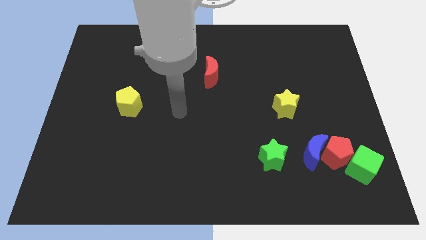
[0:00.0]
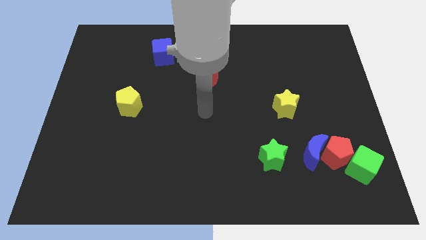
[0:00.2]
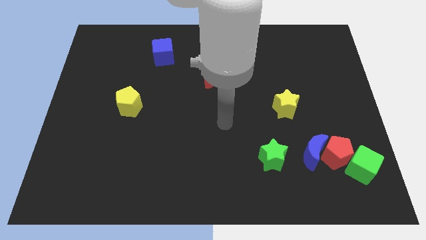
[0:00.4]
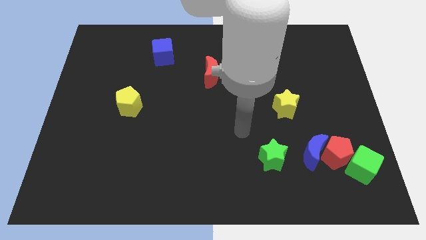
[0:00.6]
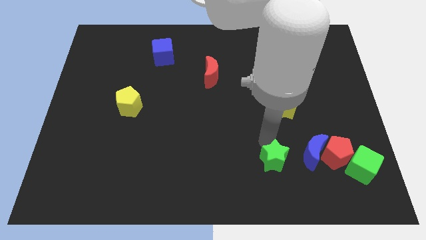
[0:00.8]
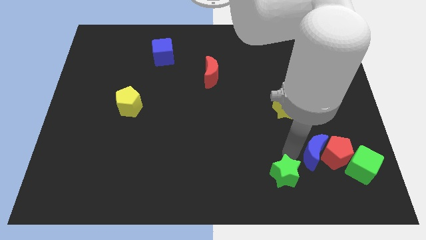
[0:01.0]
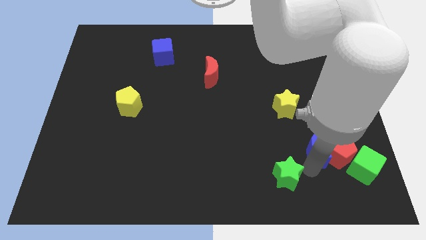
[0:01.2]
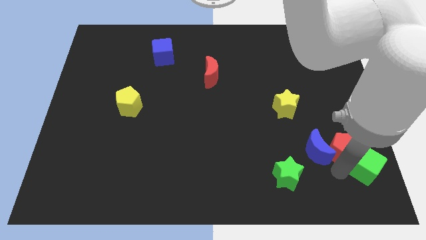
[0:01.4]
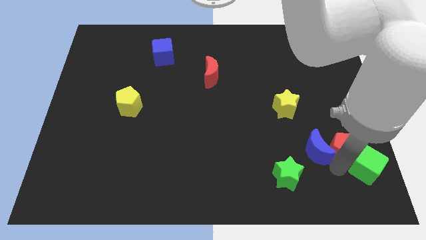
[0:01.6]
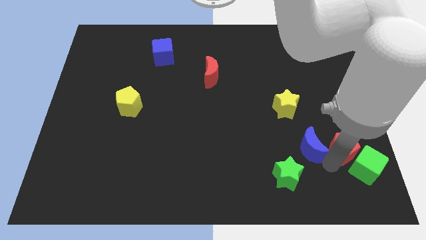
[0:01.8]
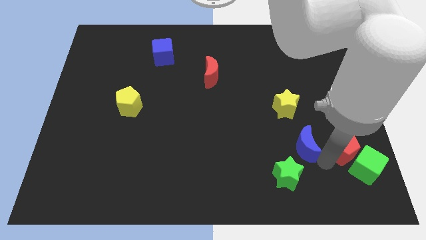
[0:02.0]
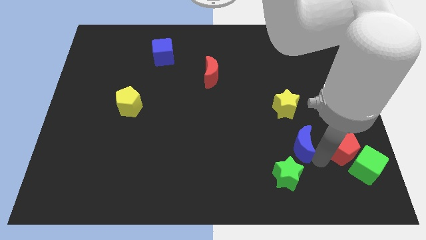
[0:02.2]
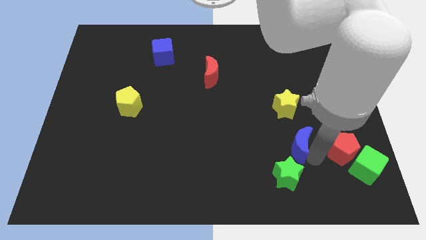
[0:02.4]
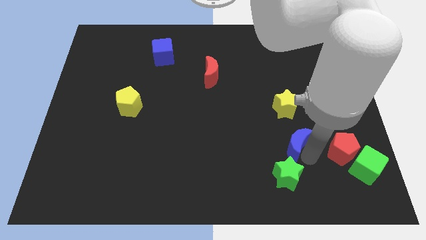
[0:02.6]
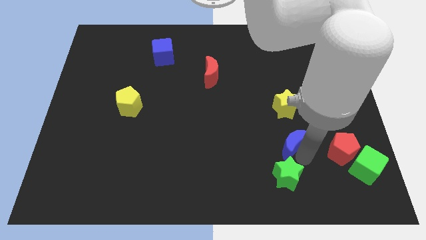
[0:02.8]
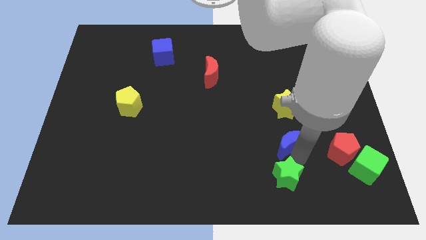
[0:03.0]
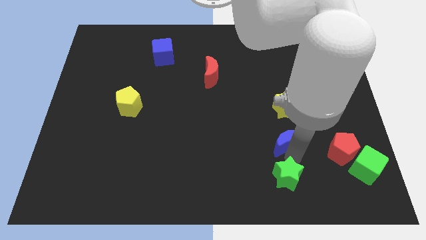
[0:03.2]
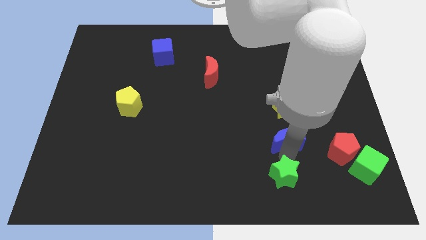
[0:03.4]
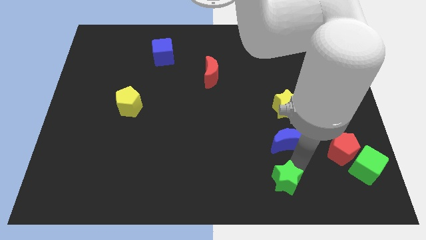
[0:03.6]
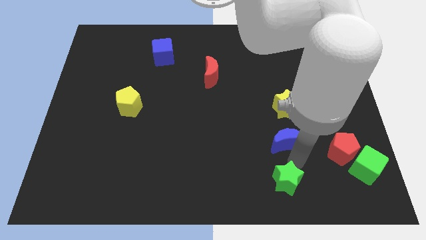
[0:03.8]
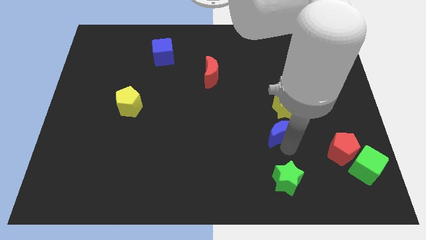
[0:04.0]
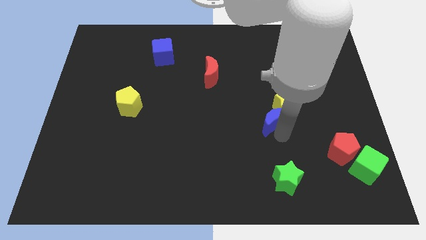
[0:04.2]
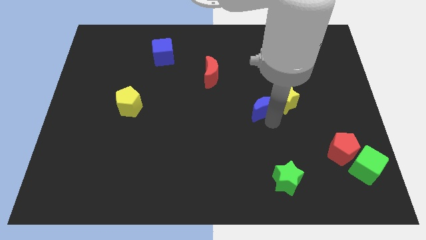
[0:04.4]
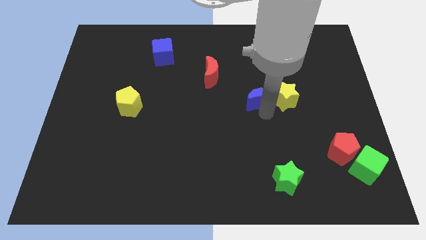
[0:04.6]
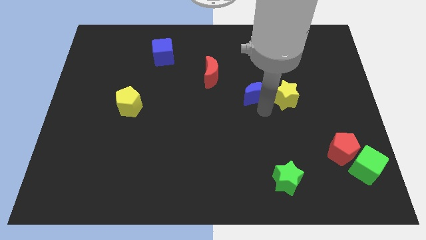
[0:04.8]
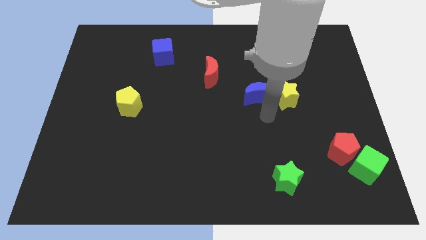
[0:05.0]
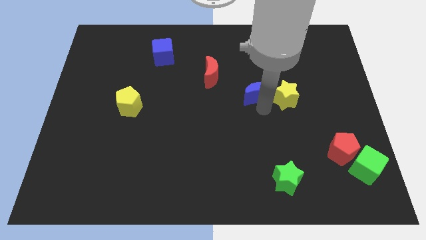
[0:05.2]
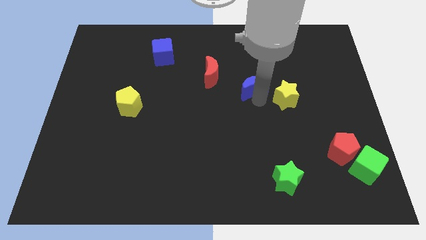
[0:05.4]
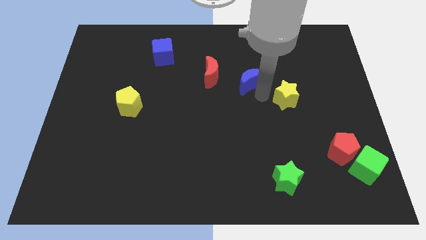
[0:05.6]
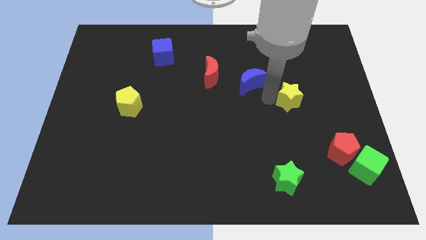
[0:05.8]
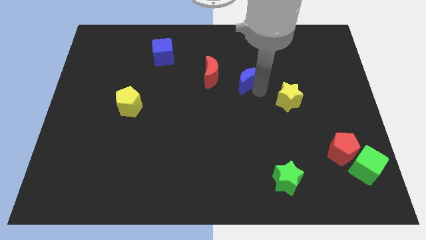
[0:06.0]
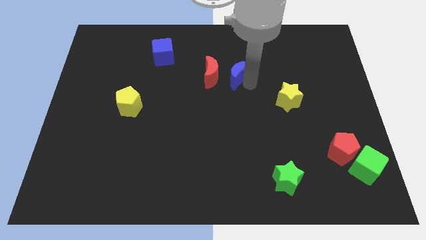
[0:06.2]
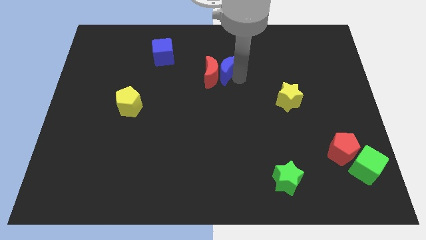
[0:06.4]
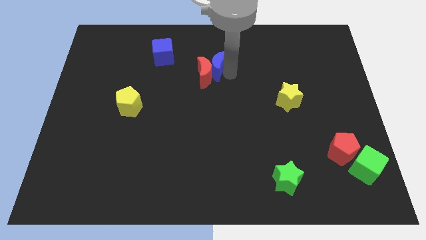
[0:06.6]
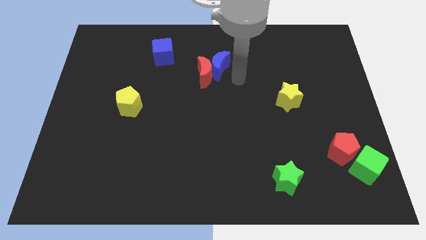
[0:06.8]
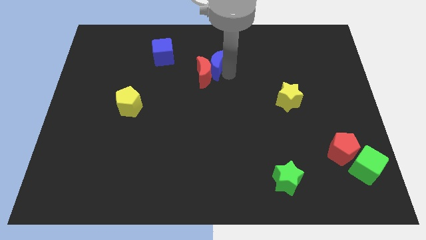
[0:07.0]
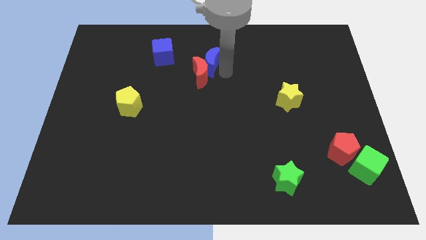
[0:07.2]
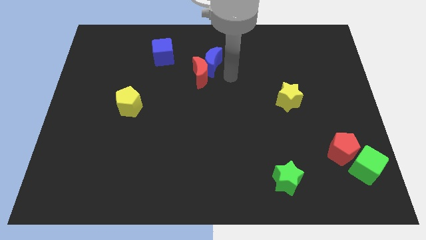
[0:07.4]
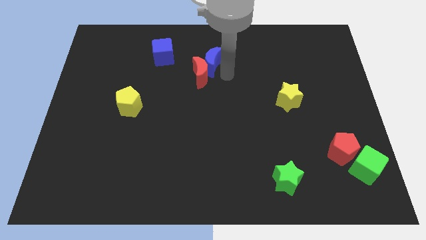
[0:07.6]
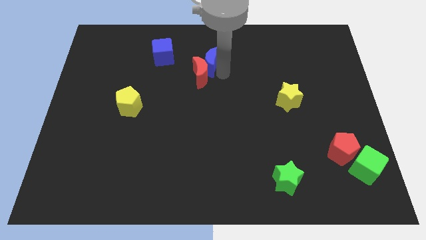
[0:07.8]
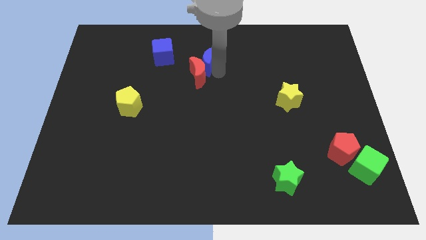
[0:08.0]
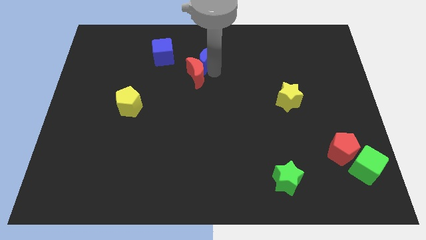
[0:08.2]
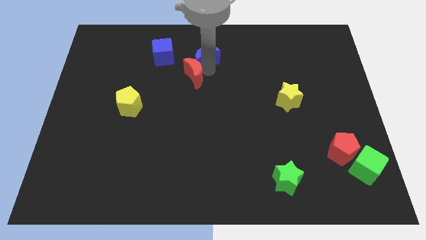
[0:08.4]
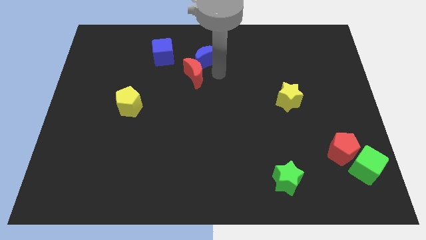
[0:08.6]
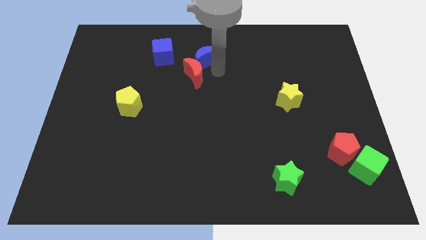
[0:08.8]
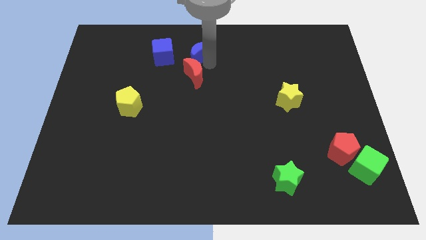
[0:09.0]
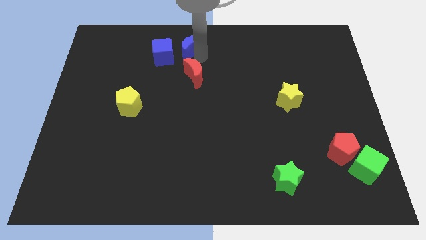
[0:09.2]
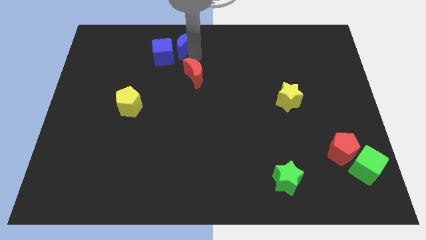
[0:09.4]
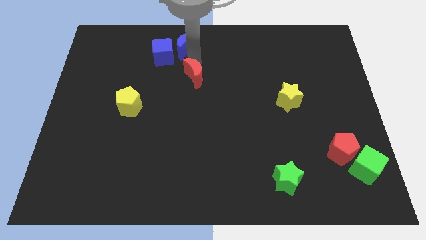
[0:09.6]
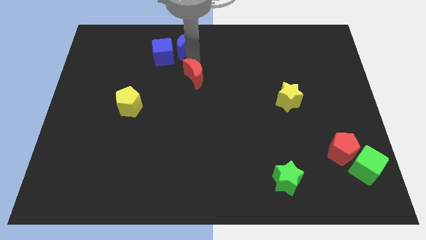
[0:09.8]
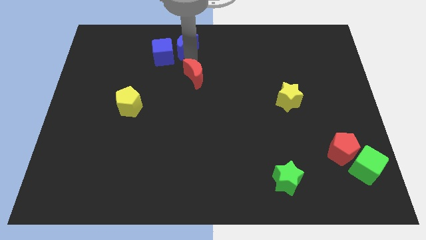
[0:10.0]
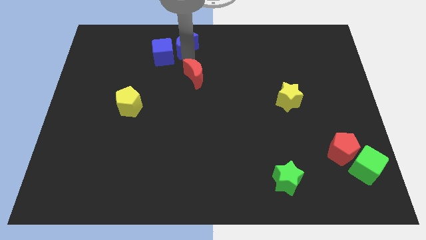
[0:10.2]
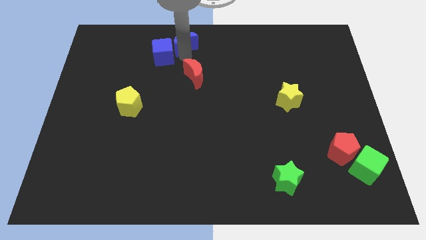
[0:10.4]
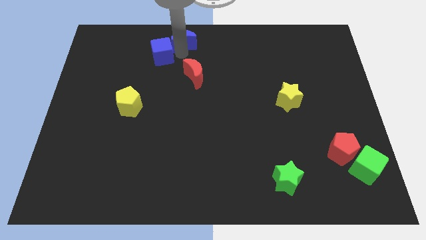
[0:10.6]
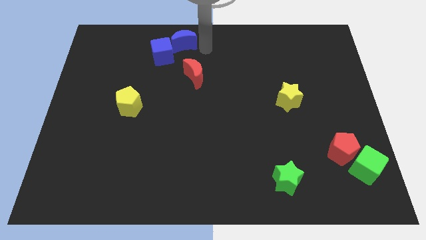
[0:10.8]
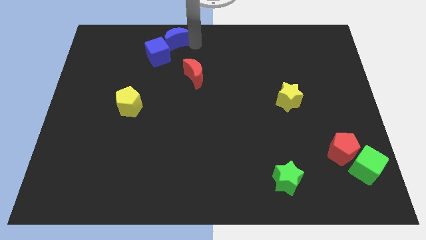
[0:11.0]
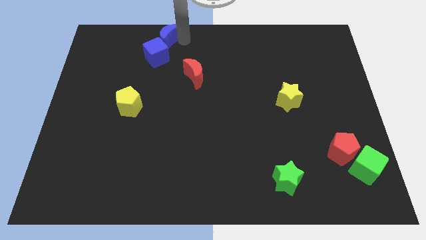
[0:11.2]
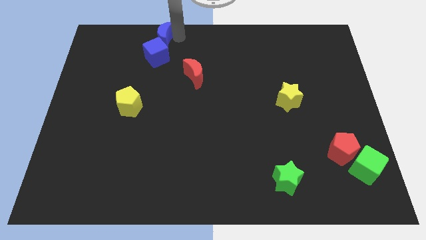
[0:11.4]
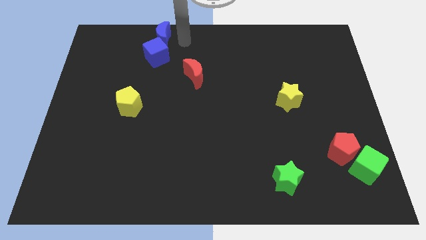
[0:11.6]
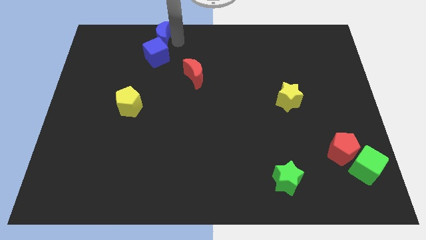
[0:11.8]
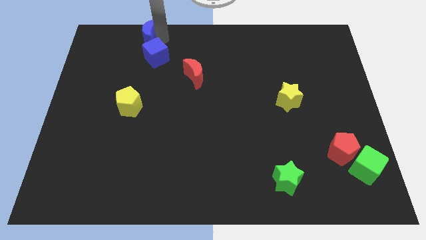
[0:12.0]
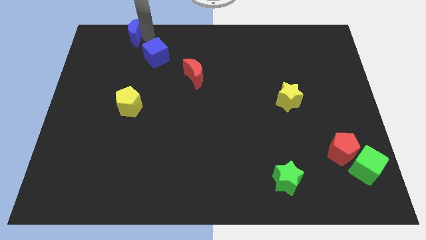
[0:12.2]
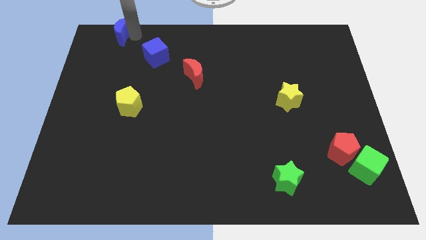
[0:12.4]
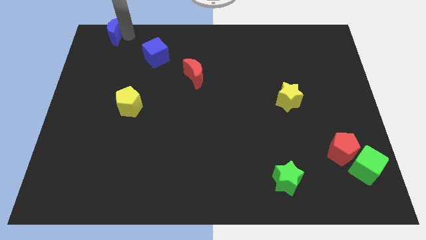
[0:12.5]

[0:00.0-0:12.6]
move the blue moon to the top left

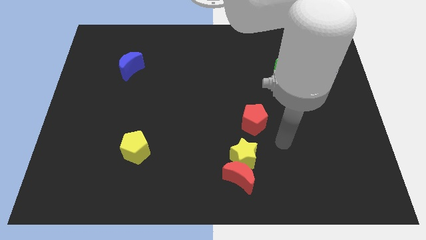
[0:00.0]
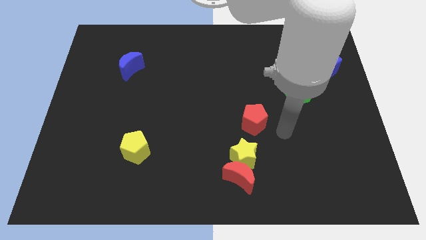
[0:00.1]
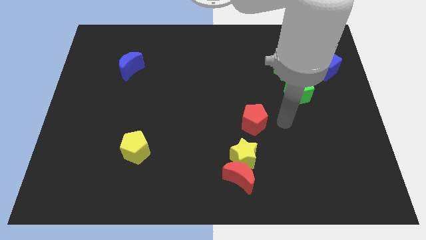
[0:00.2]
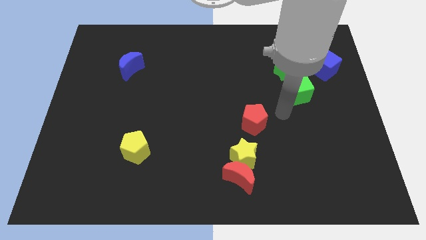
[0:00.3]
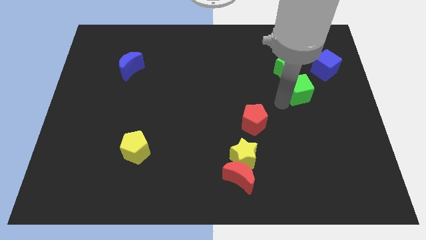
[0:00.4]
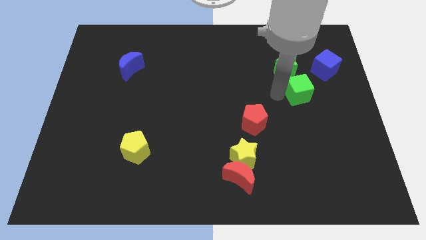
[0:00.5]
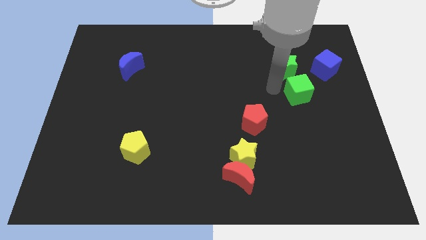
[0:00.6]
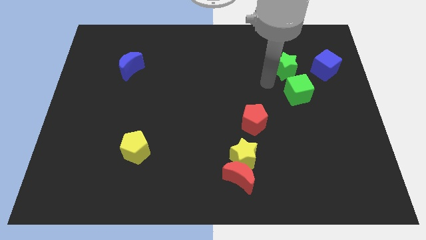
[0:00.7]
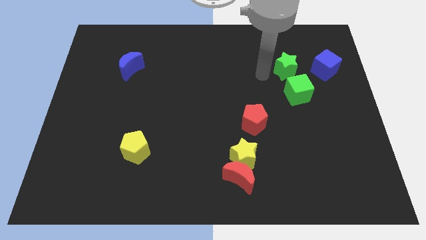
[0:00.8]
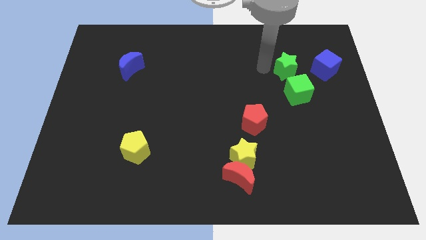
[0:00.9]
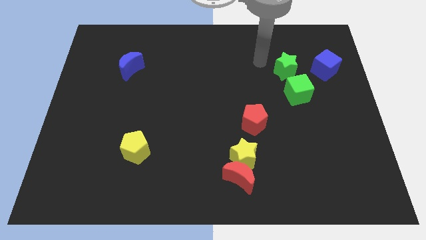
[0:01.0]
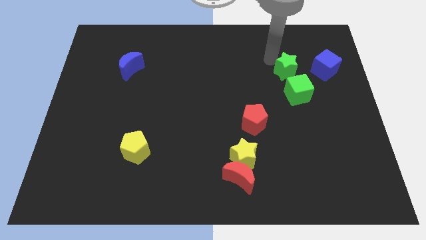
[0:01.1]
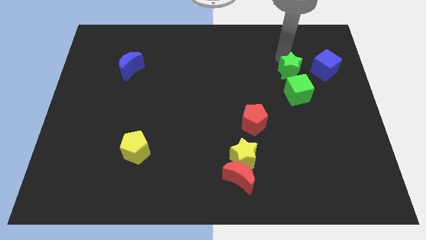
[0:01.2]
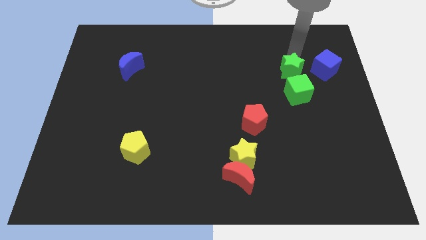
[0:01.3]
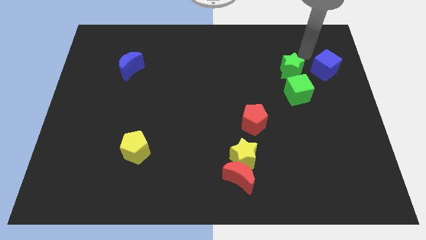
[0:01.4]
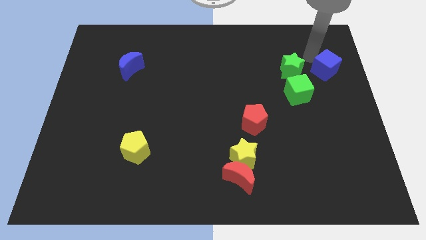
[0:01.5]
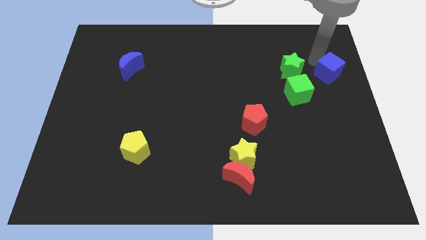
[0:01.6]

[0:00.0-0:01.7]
slide the blue cube to the center right
